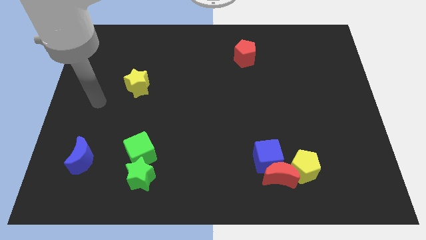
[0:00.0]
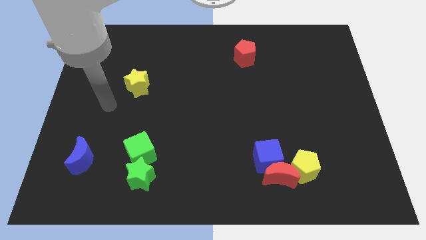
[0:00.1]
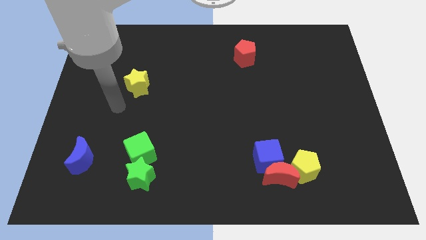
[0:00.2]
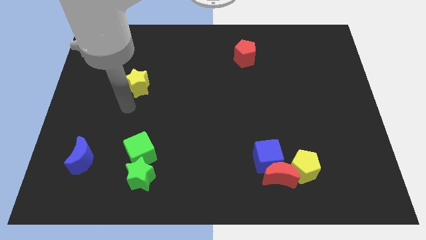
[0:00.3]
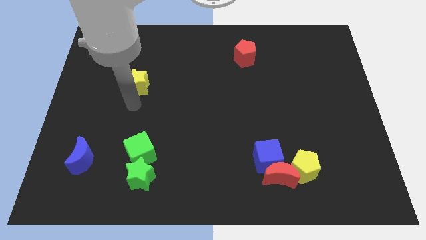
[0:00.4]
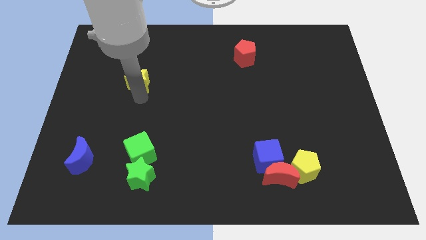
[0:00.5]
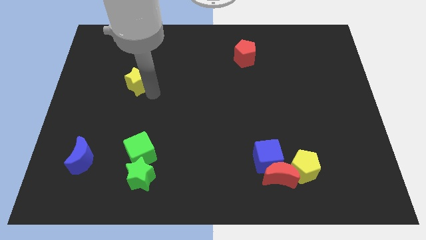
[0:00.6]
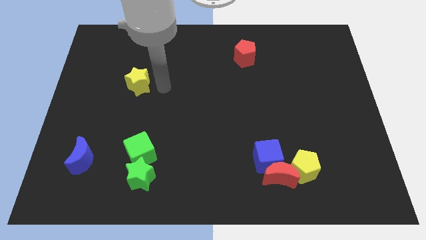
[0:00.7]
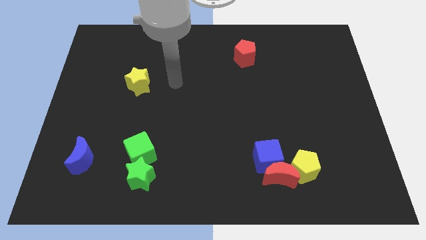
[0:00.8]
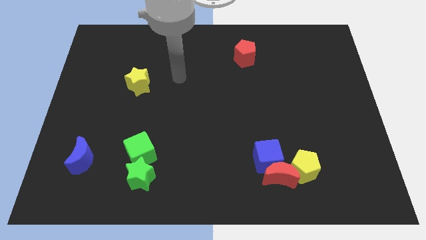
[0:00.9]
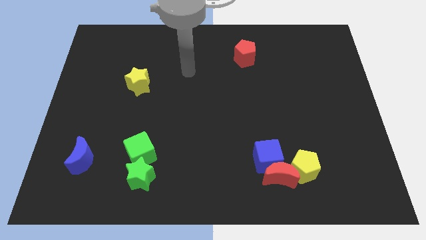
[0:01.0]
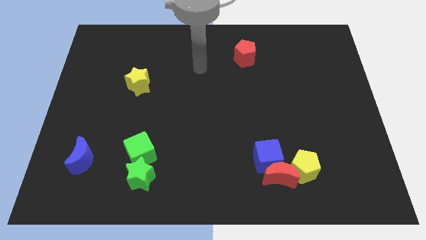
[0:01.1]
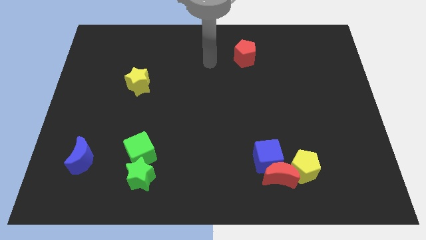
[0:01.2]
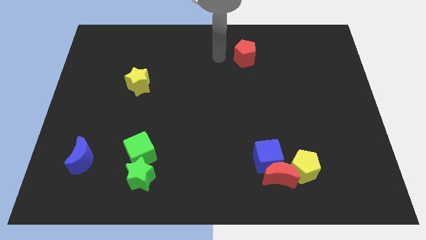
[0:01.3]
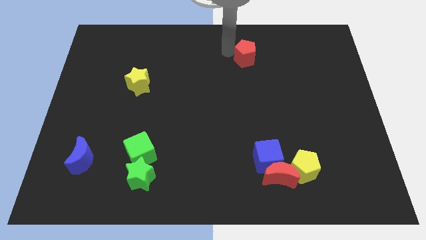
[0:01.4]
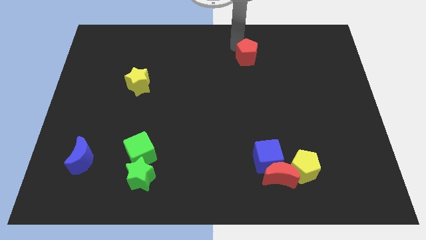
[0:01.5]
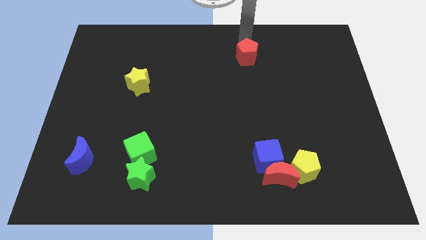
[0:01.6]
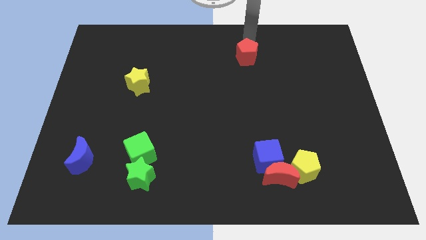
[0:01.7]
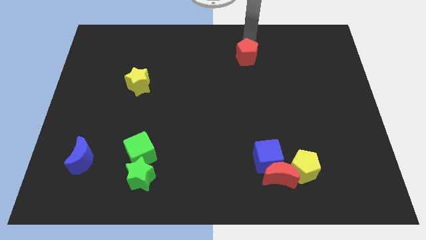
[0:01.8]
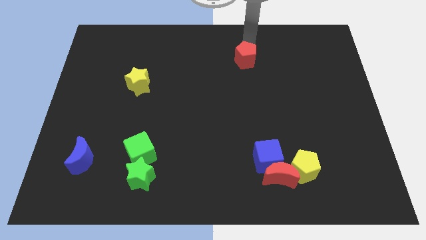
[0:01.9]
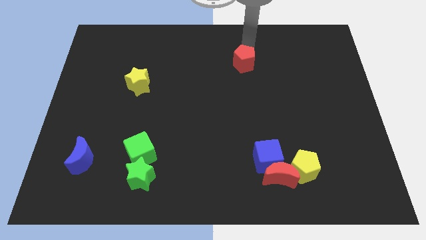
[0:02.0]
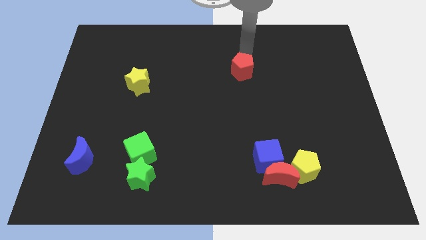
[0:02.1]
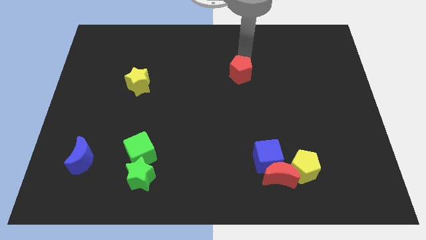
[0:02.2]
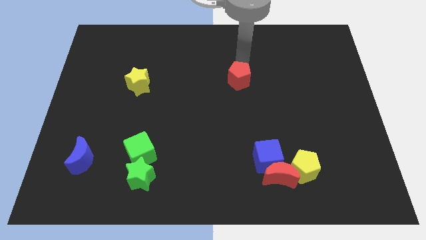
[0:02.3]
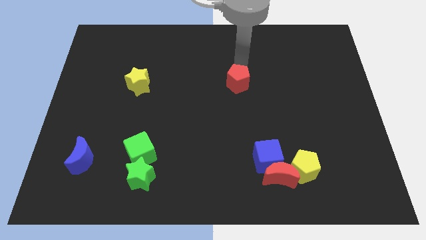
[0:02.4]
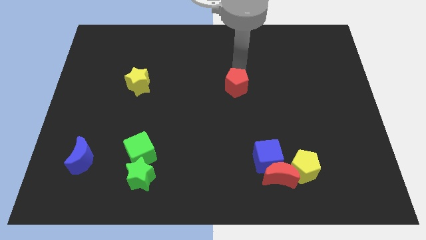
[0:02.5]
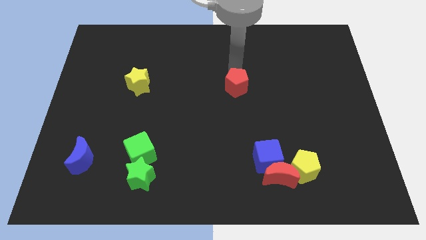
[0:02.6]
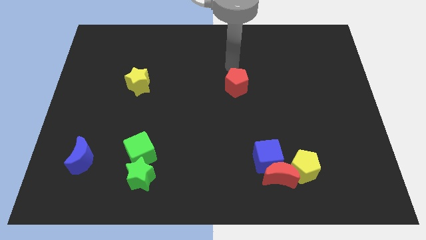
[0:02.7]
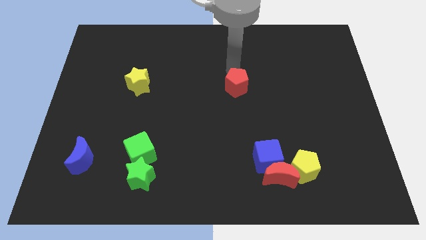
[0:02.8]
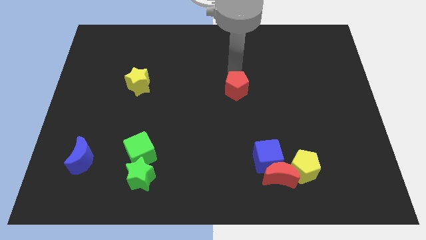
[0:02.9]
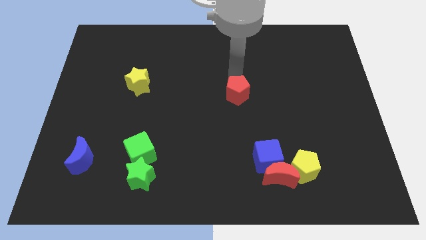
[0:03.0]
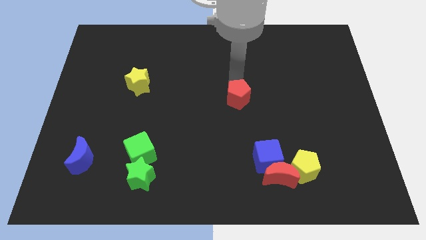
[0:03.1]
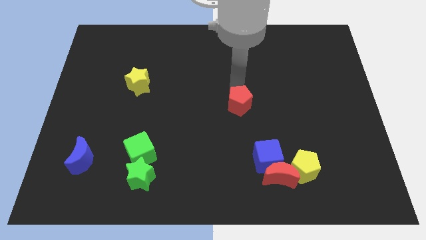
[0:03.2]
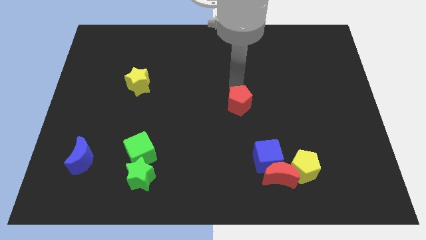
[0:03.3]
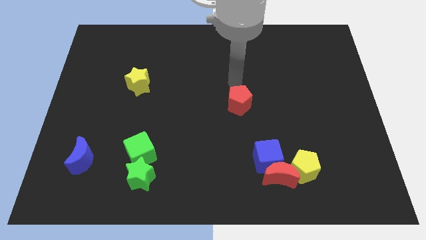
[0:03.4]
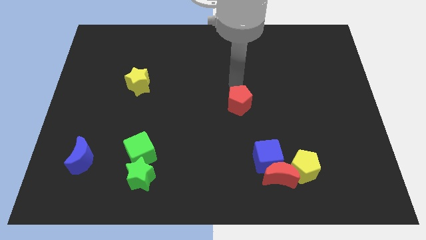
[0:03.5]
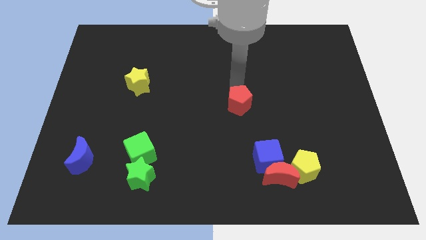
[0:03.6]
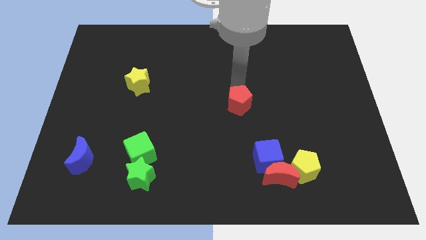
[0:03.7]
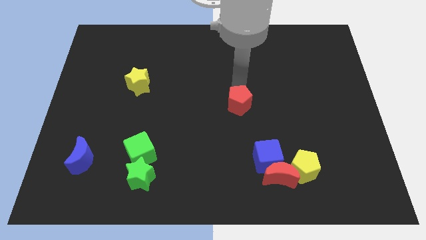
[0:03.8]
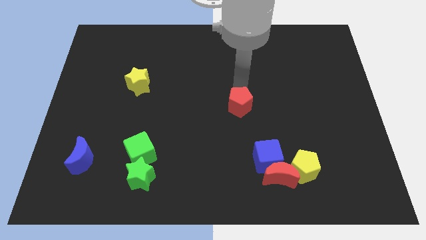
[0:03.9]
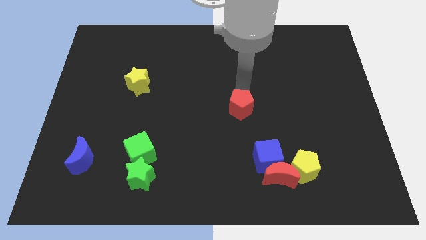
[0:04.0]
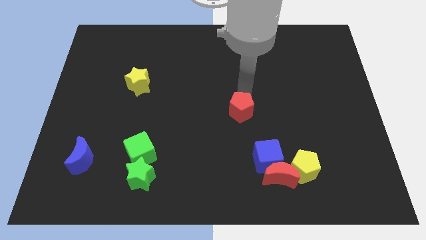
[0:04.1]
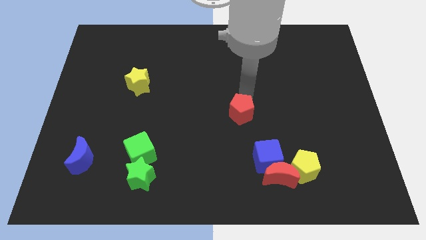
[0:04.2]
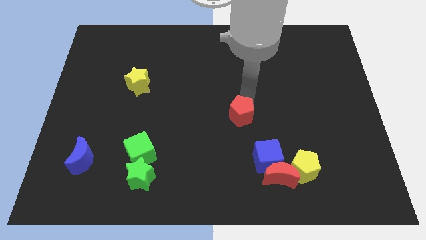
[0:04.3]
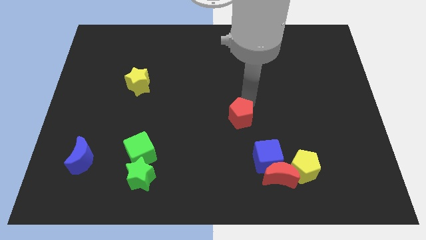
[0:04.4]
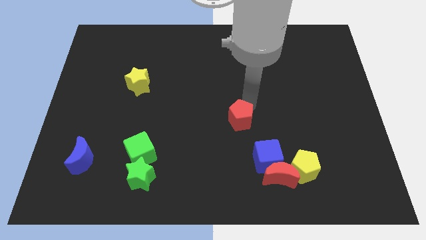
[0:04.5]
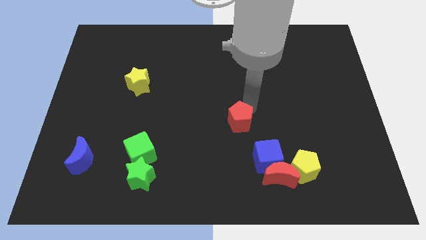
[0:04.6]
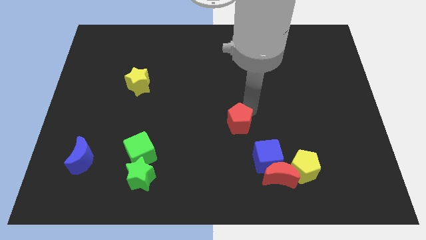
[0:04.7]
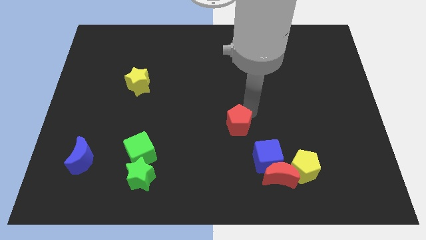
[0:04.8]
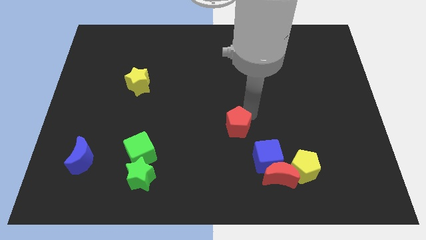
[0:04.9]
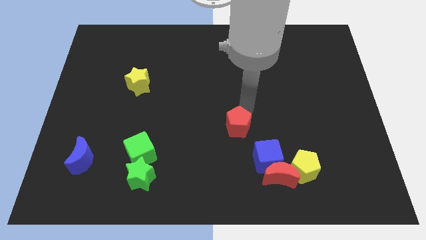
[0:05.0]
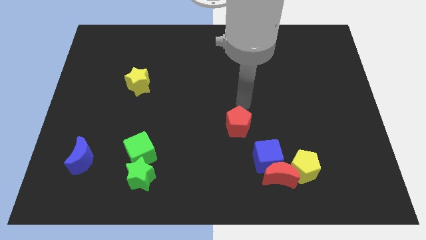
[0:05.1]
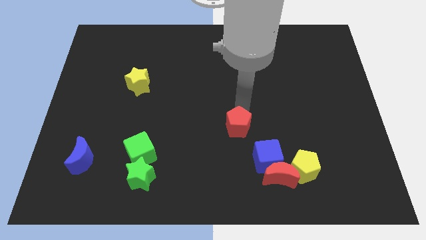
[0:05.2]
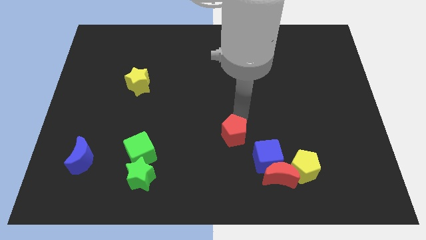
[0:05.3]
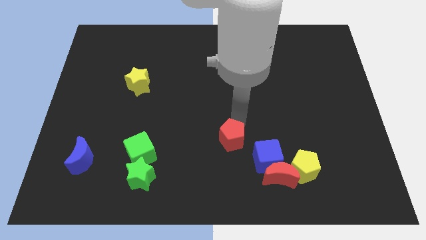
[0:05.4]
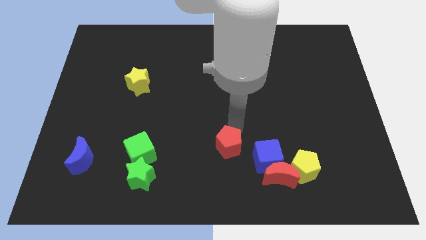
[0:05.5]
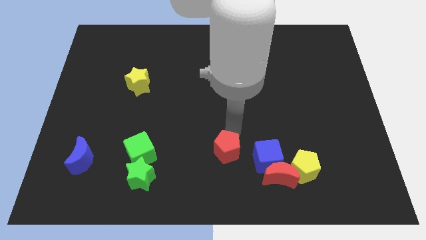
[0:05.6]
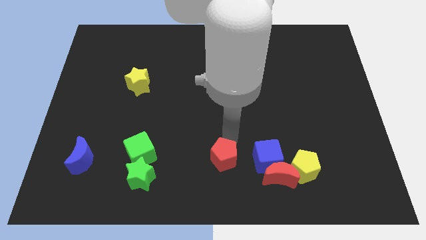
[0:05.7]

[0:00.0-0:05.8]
push the red pentagon to the left of the red moon

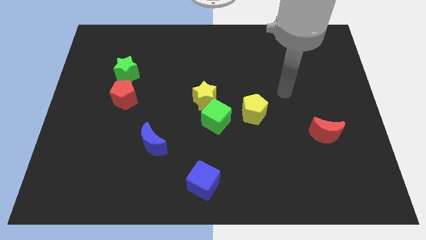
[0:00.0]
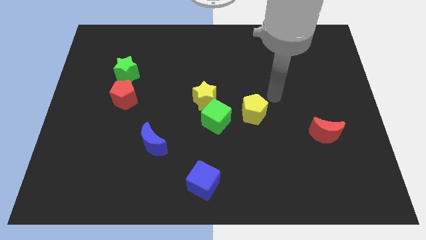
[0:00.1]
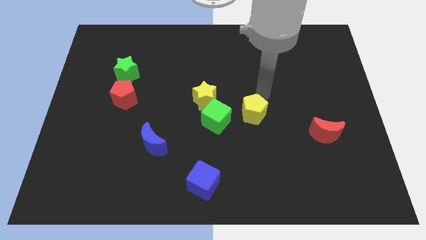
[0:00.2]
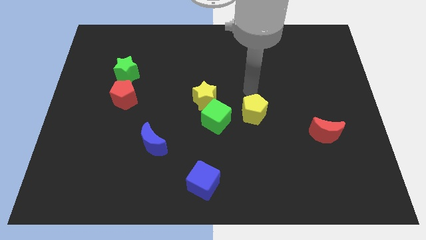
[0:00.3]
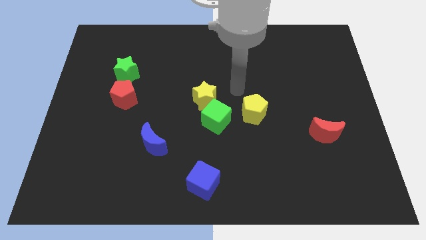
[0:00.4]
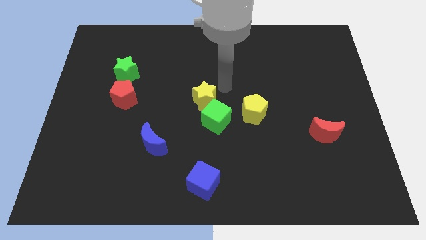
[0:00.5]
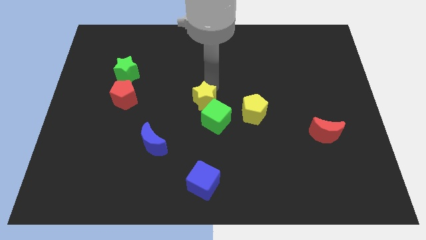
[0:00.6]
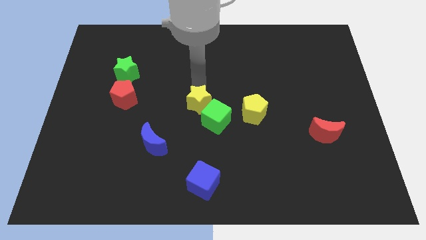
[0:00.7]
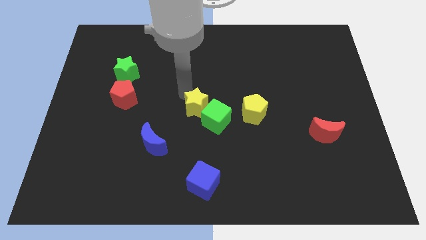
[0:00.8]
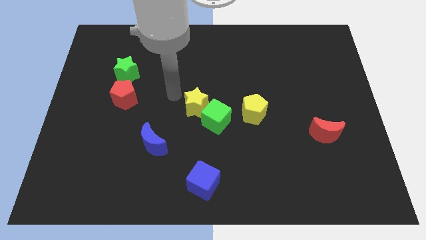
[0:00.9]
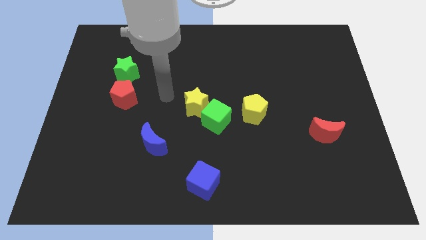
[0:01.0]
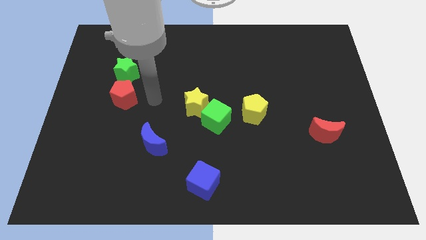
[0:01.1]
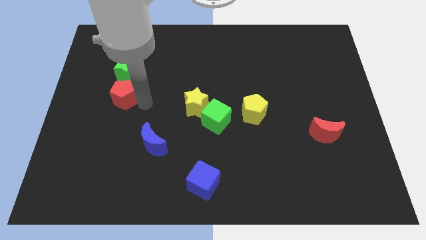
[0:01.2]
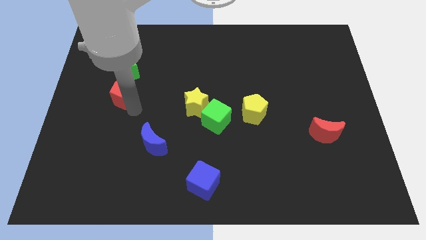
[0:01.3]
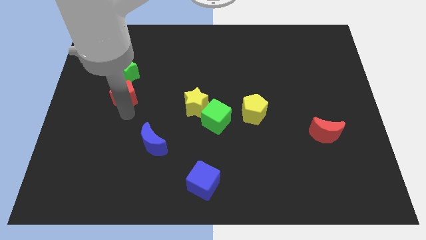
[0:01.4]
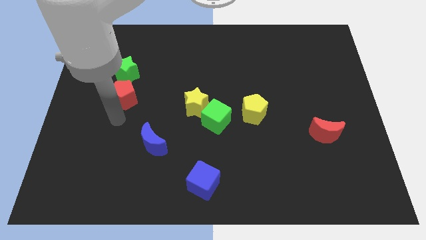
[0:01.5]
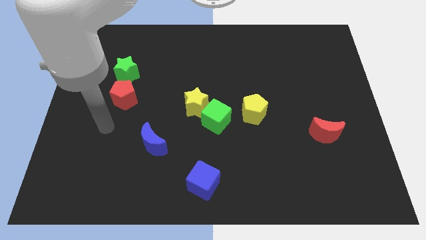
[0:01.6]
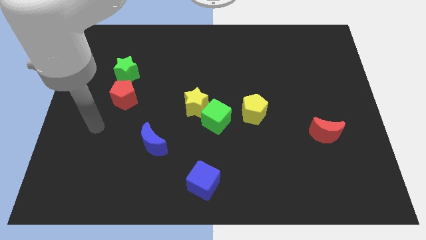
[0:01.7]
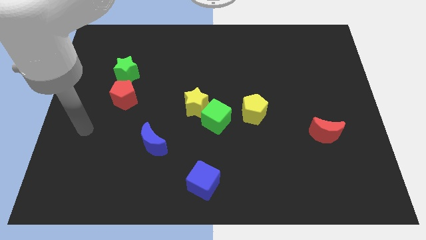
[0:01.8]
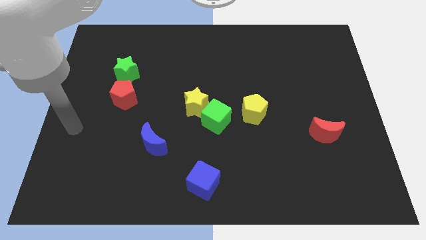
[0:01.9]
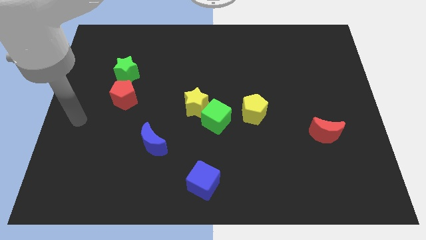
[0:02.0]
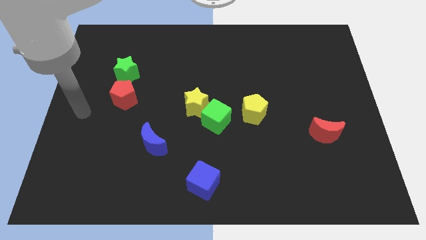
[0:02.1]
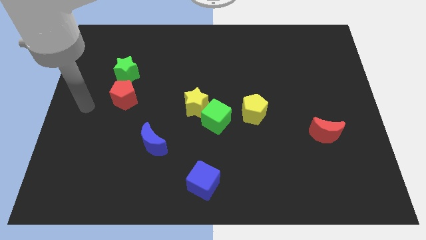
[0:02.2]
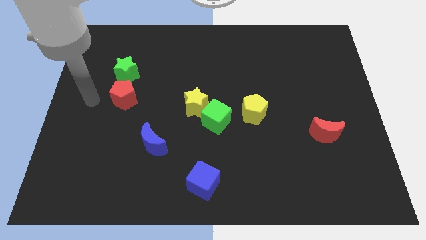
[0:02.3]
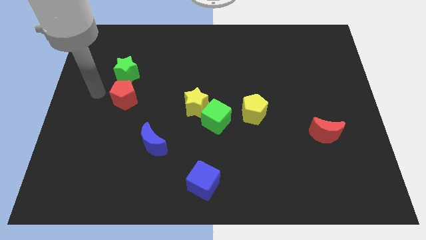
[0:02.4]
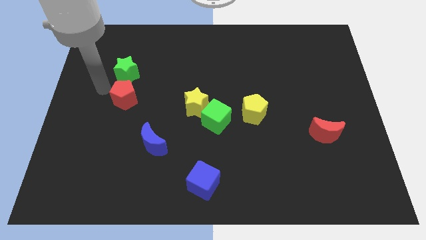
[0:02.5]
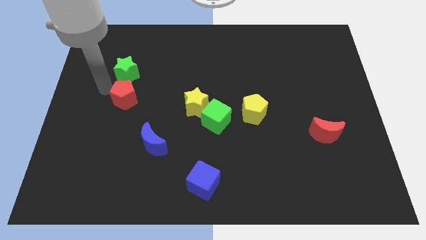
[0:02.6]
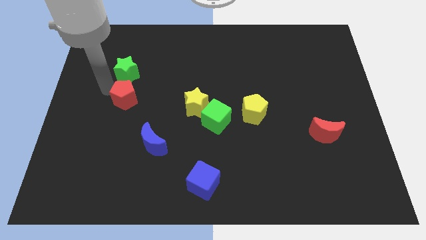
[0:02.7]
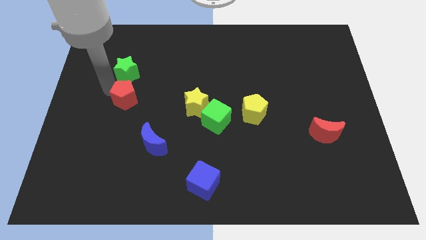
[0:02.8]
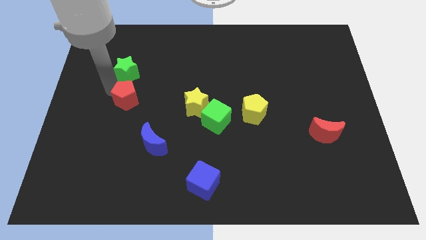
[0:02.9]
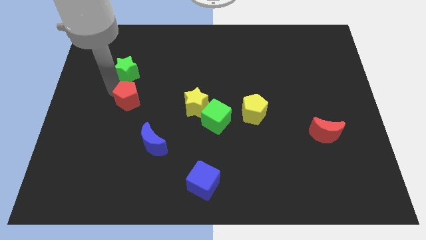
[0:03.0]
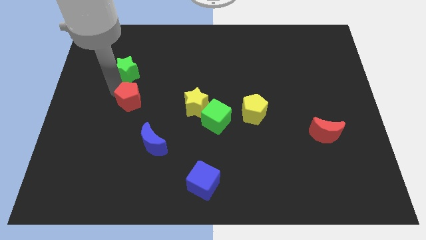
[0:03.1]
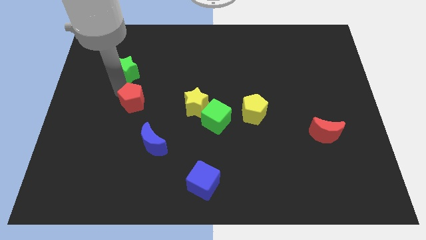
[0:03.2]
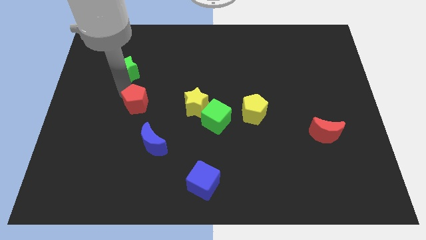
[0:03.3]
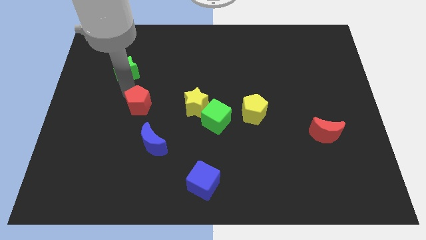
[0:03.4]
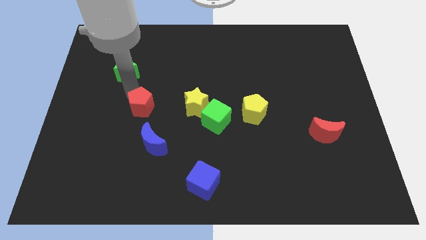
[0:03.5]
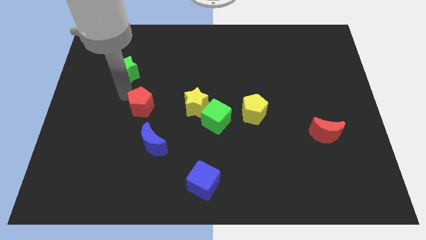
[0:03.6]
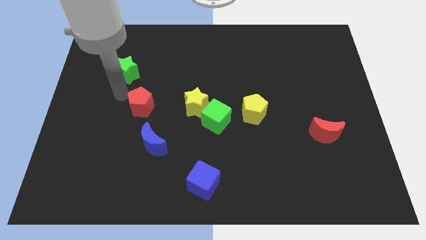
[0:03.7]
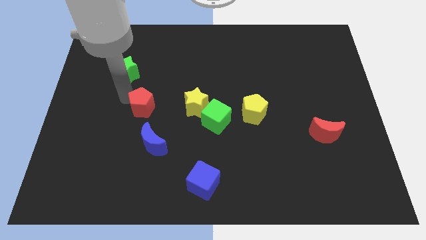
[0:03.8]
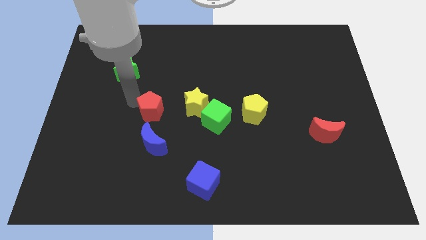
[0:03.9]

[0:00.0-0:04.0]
put the red pentagon to the left of the green cube
